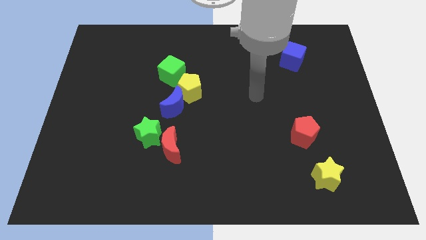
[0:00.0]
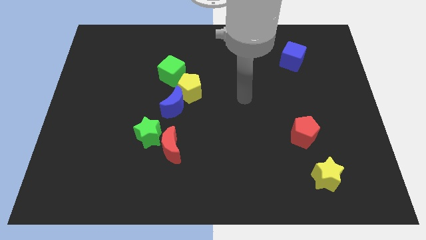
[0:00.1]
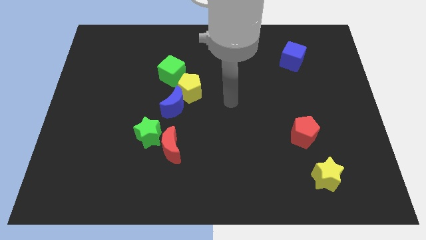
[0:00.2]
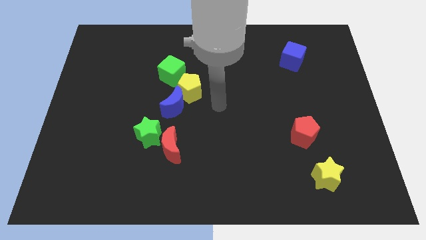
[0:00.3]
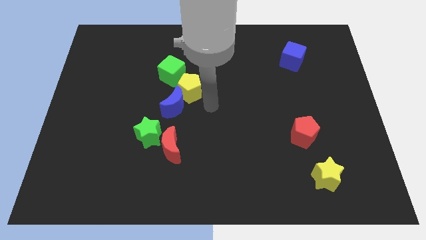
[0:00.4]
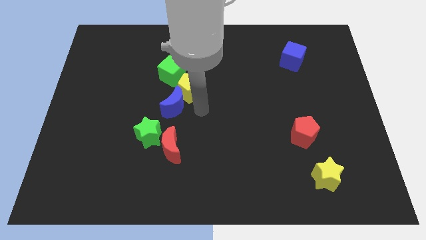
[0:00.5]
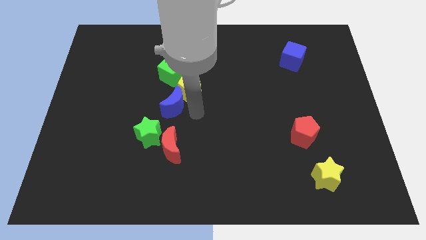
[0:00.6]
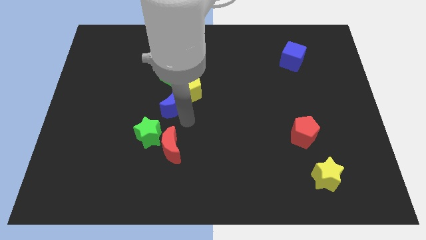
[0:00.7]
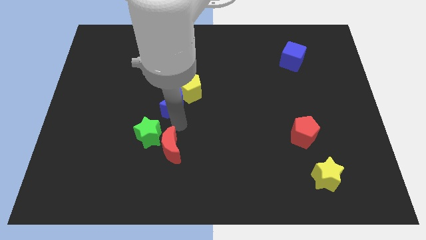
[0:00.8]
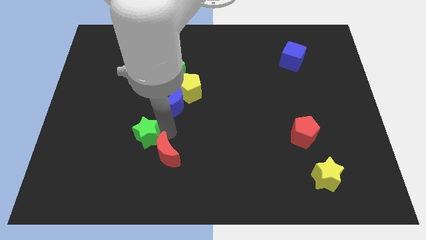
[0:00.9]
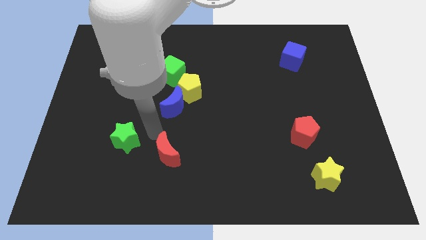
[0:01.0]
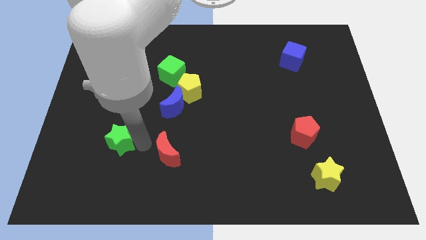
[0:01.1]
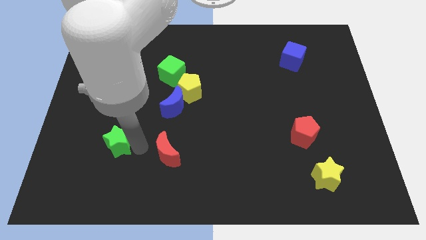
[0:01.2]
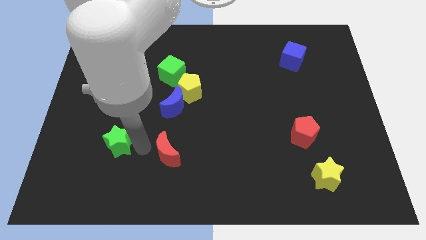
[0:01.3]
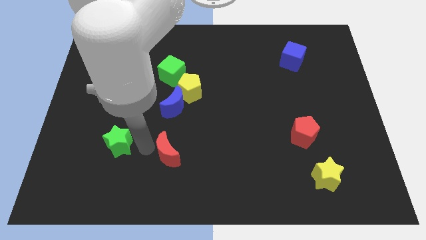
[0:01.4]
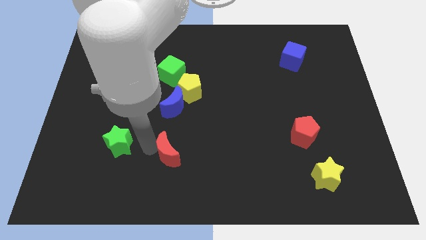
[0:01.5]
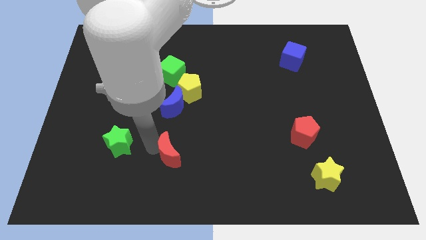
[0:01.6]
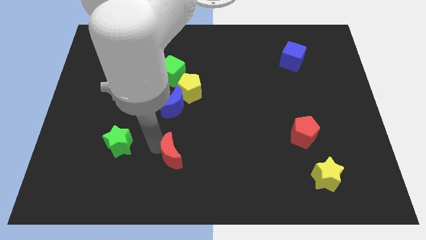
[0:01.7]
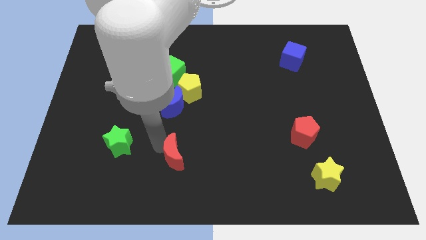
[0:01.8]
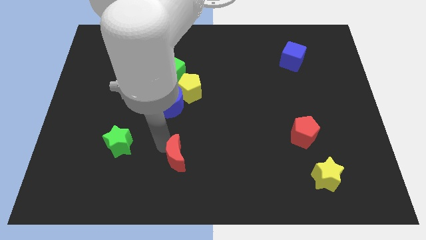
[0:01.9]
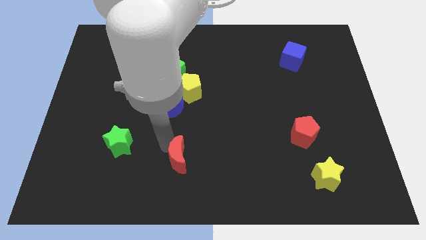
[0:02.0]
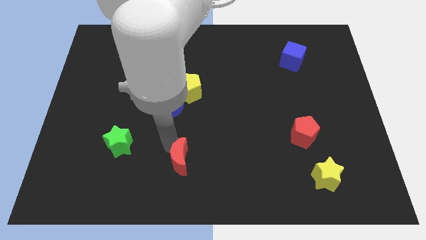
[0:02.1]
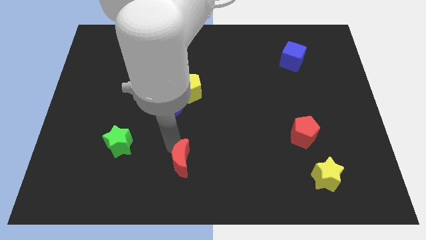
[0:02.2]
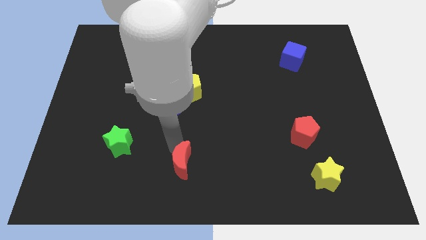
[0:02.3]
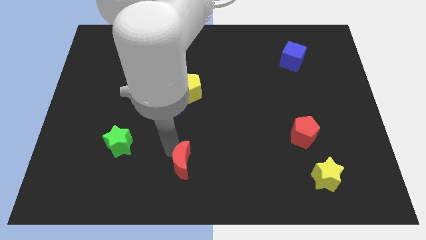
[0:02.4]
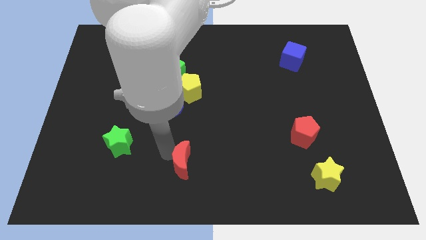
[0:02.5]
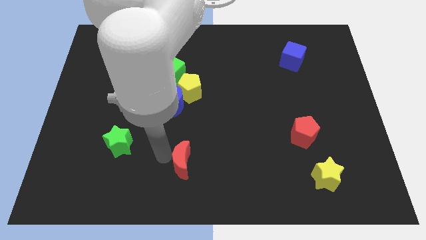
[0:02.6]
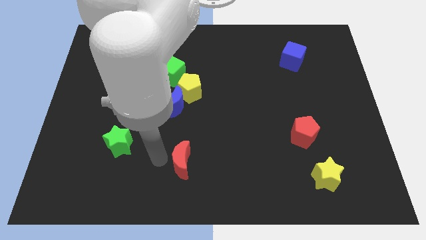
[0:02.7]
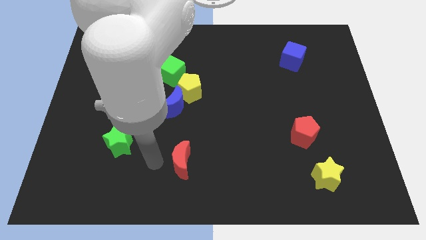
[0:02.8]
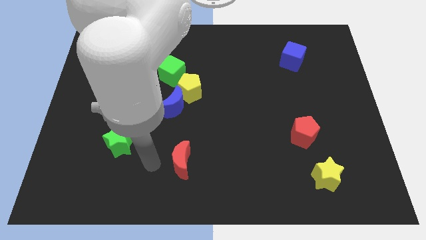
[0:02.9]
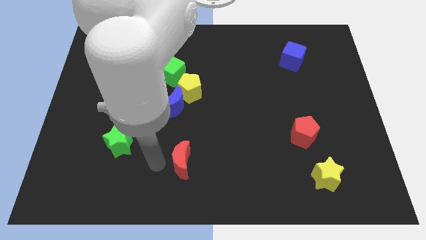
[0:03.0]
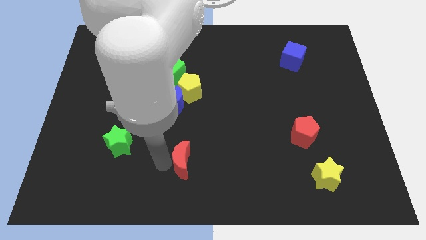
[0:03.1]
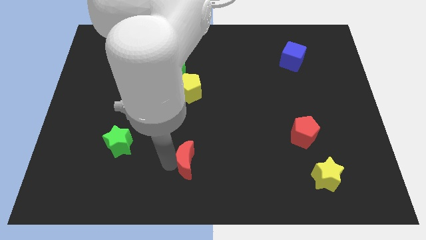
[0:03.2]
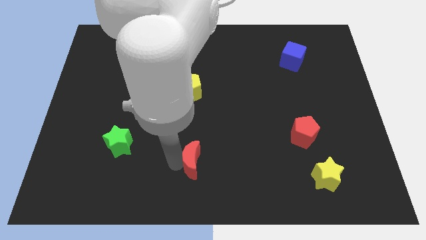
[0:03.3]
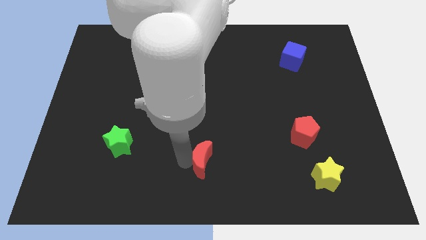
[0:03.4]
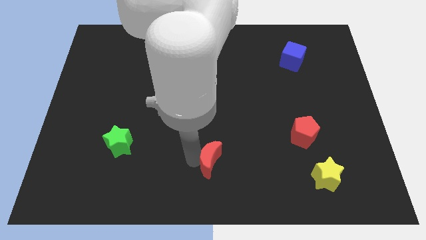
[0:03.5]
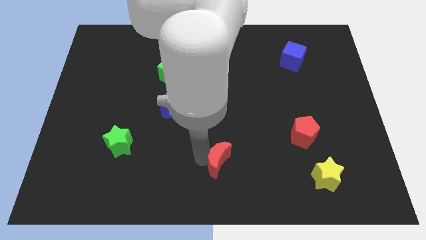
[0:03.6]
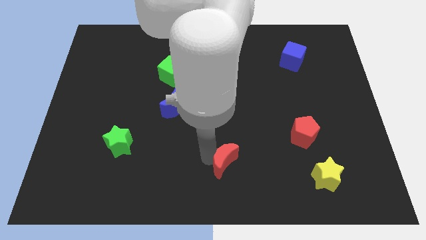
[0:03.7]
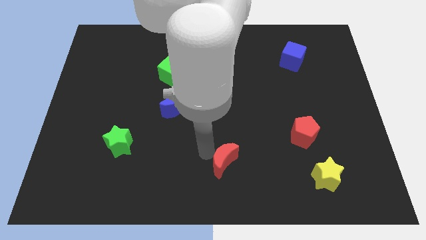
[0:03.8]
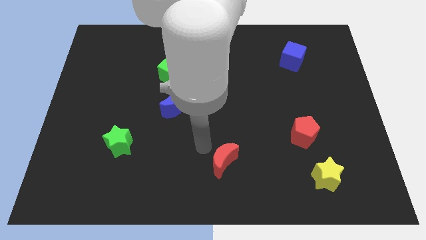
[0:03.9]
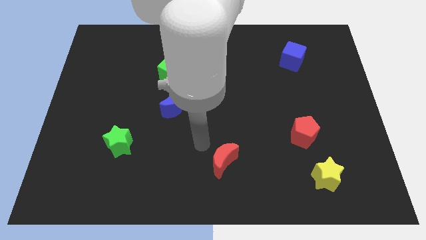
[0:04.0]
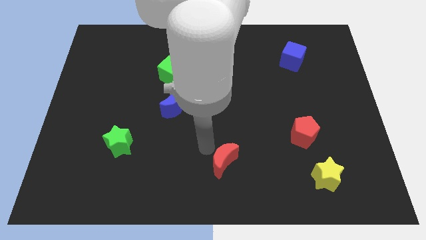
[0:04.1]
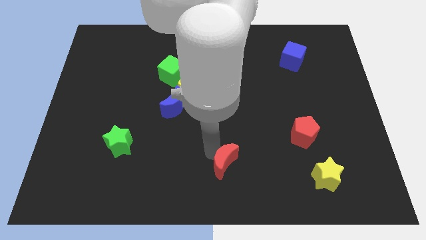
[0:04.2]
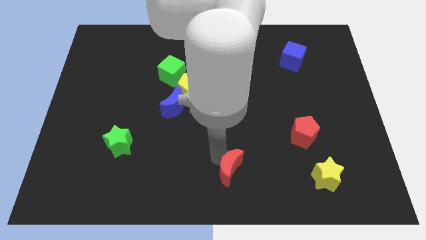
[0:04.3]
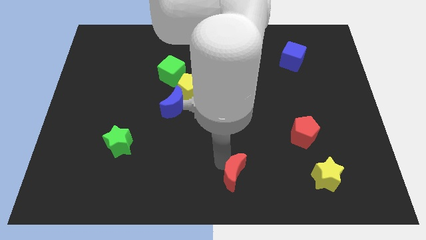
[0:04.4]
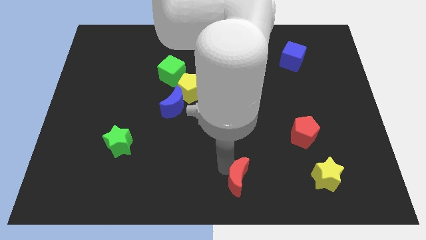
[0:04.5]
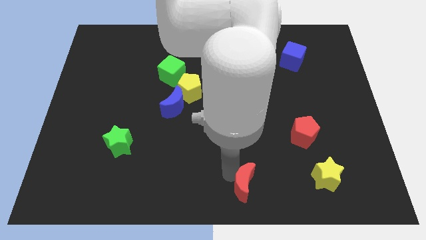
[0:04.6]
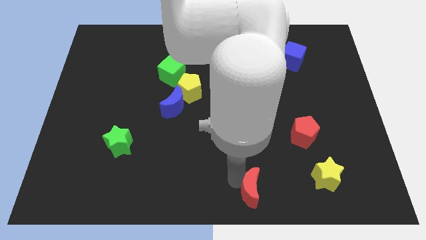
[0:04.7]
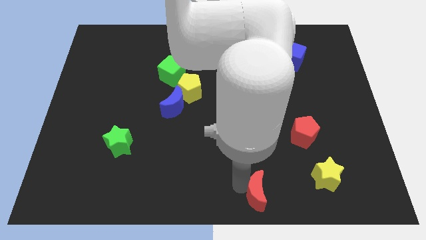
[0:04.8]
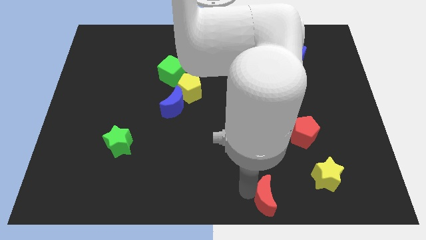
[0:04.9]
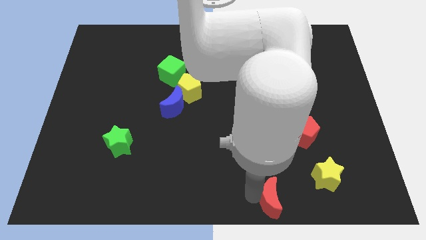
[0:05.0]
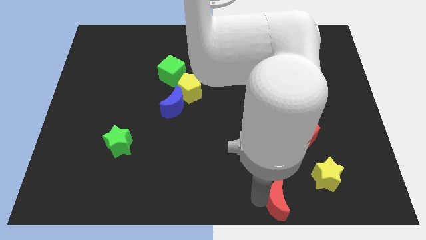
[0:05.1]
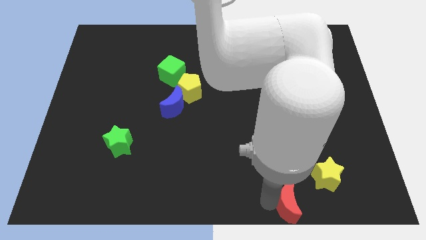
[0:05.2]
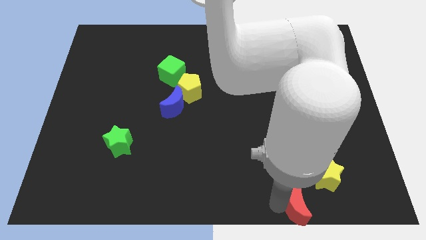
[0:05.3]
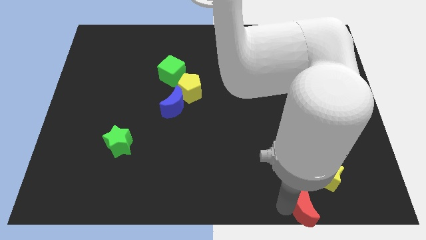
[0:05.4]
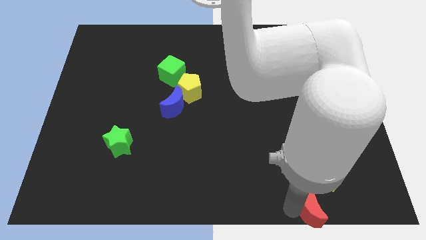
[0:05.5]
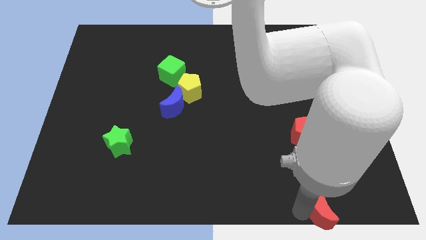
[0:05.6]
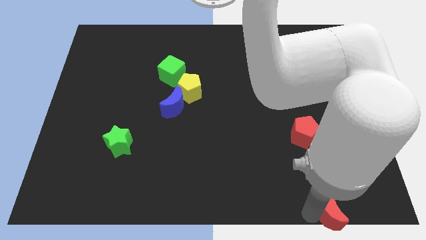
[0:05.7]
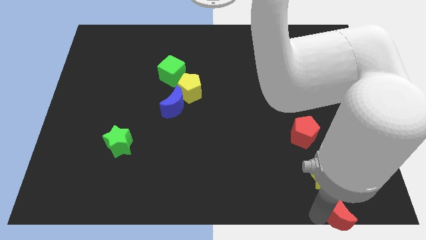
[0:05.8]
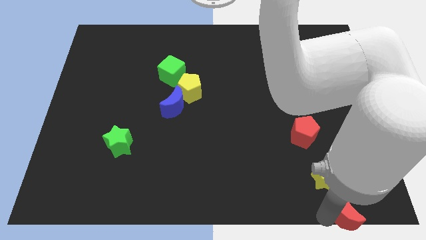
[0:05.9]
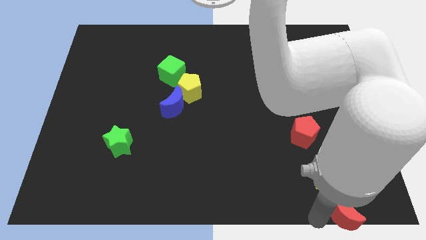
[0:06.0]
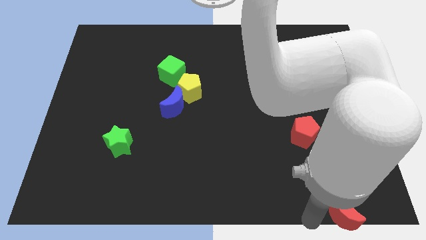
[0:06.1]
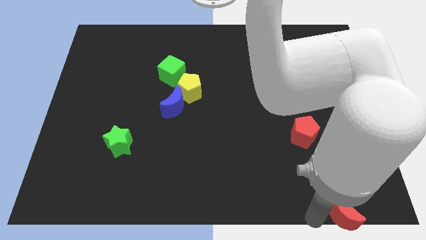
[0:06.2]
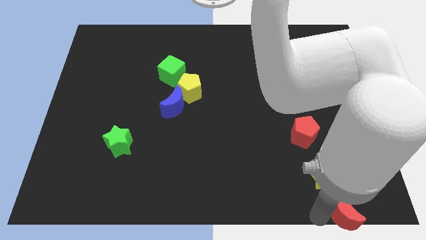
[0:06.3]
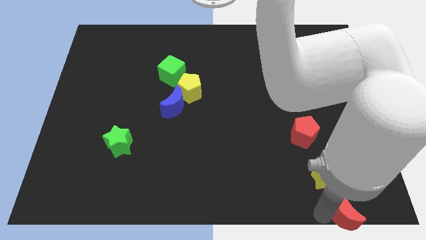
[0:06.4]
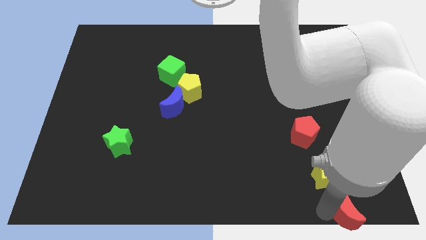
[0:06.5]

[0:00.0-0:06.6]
move the red moon to the bottom right
